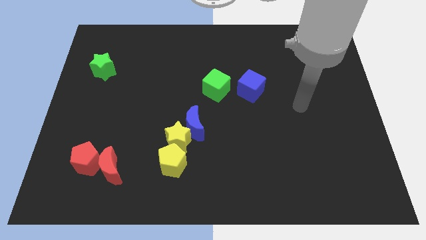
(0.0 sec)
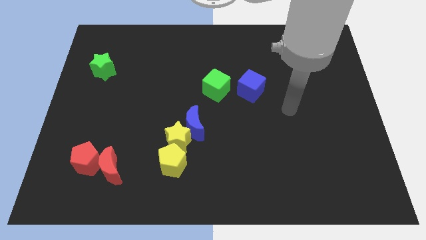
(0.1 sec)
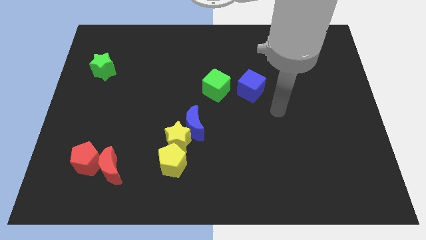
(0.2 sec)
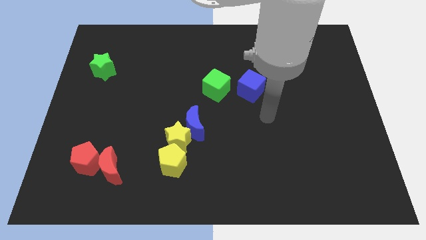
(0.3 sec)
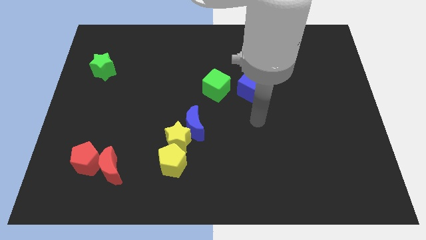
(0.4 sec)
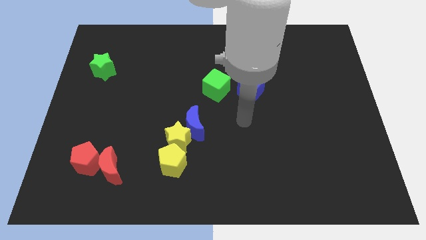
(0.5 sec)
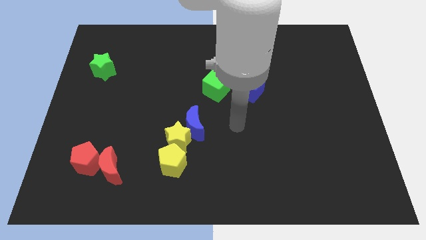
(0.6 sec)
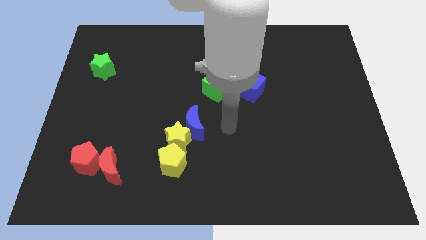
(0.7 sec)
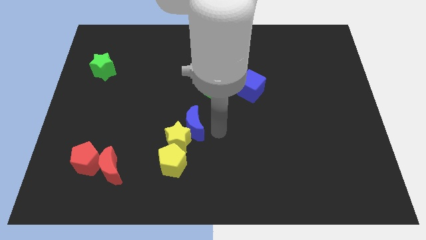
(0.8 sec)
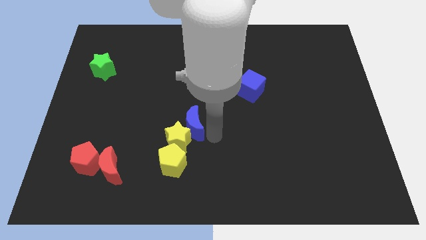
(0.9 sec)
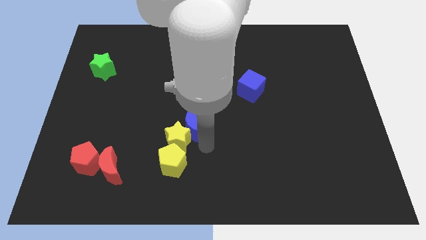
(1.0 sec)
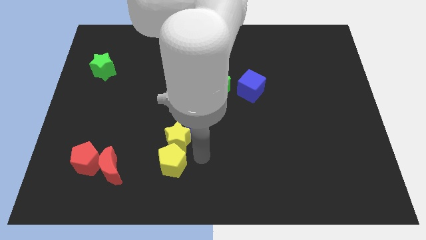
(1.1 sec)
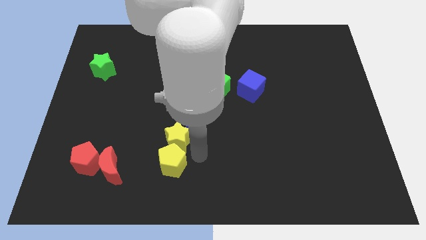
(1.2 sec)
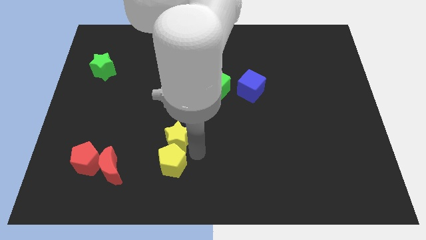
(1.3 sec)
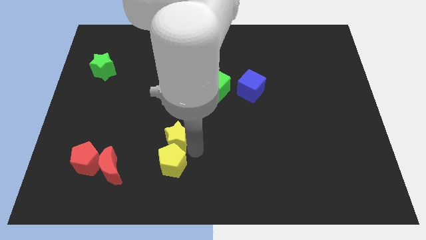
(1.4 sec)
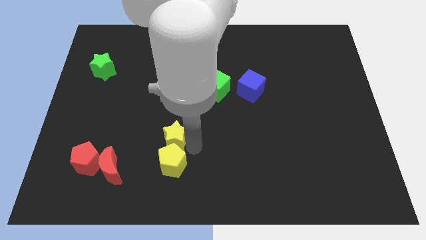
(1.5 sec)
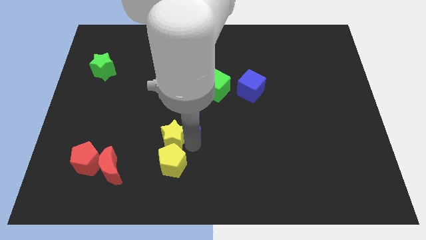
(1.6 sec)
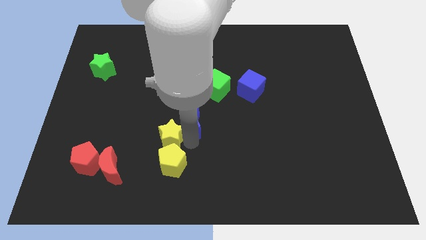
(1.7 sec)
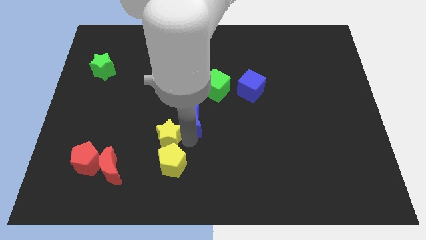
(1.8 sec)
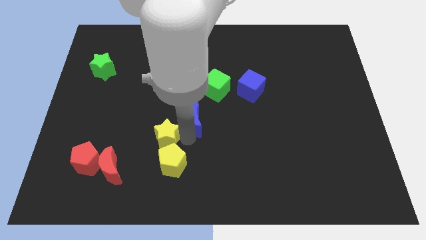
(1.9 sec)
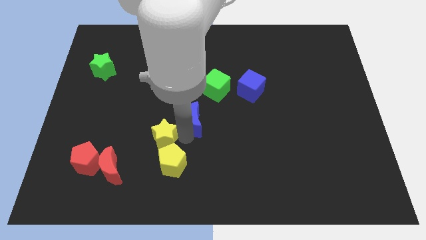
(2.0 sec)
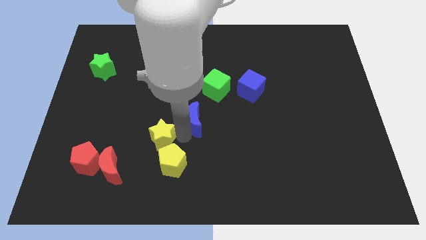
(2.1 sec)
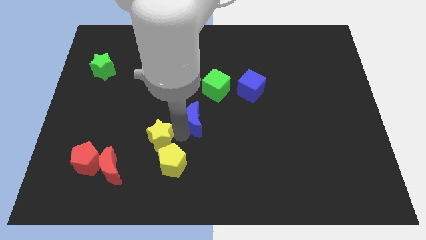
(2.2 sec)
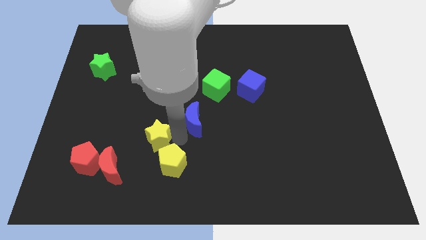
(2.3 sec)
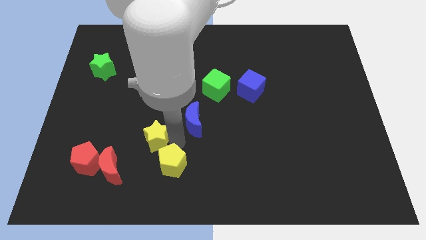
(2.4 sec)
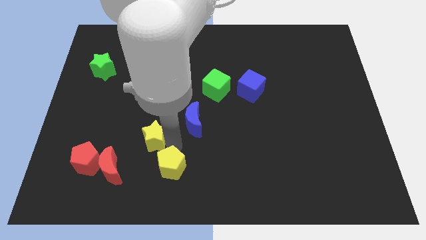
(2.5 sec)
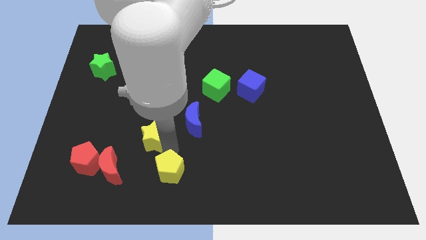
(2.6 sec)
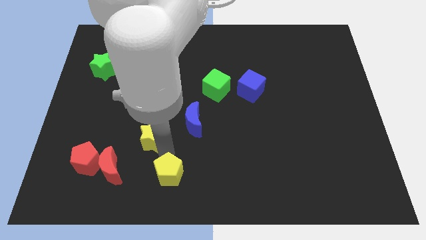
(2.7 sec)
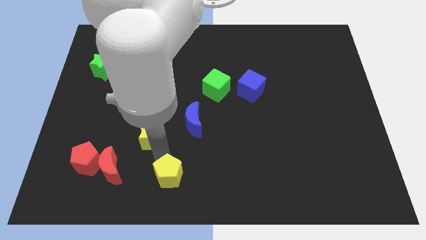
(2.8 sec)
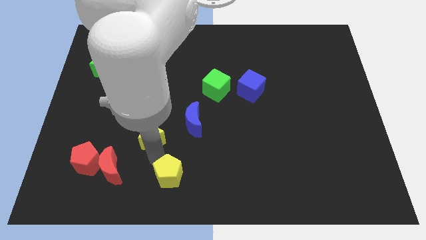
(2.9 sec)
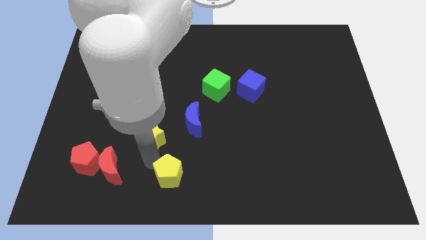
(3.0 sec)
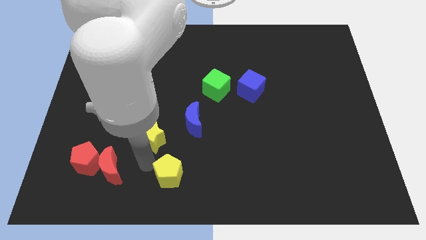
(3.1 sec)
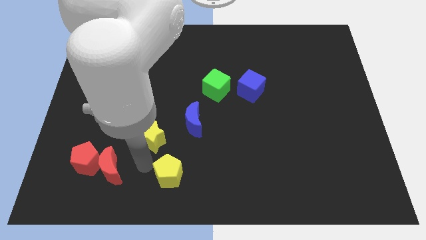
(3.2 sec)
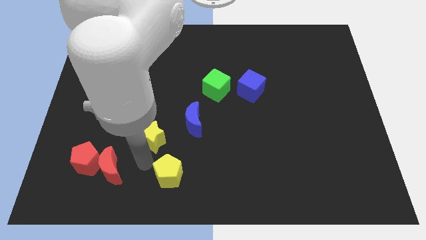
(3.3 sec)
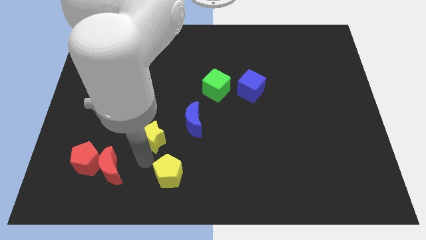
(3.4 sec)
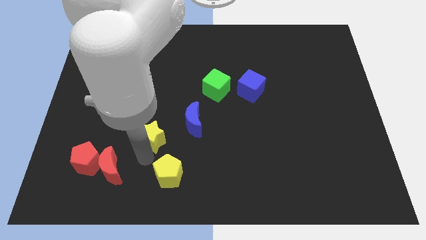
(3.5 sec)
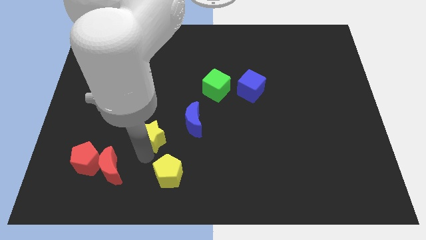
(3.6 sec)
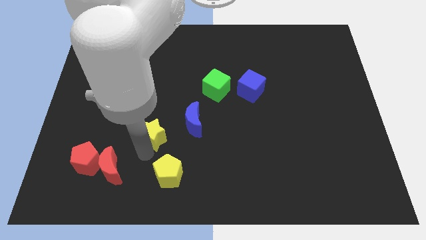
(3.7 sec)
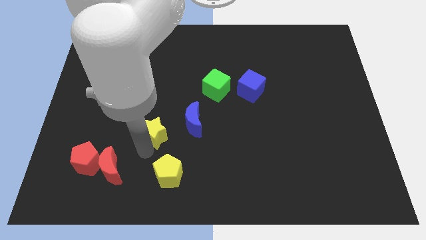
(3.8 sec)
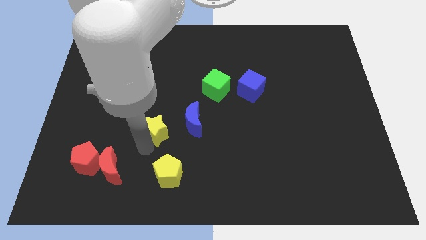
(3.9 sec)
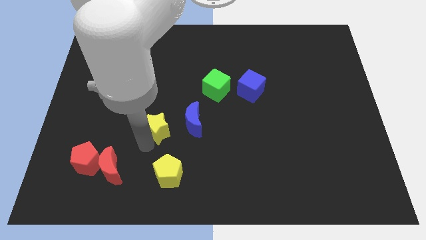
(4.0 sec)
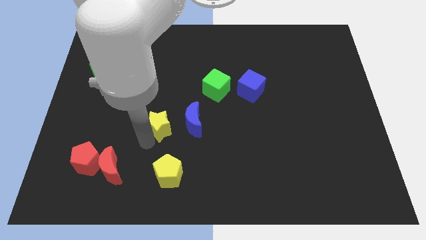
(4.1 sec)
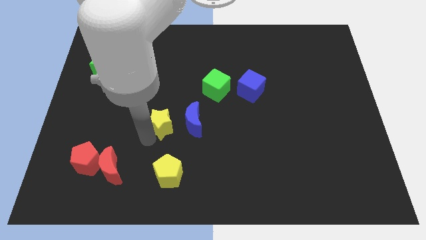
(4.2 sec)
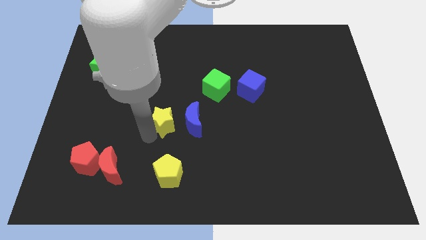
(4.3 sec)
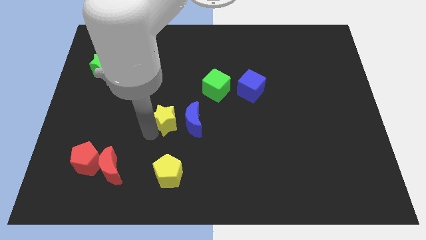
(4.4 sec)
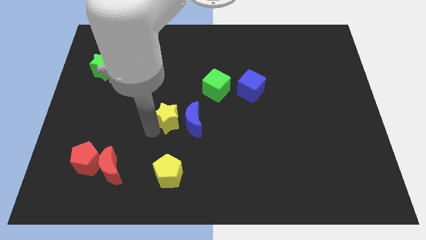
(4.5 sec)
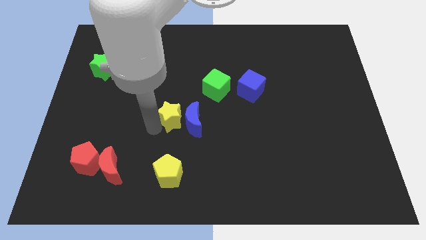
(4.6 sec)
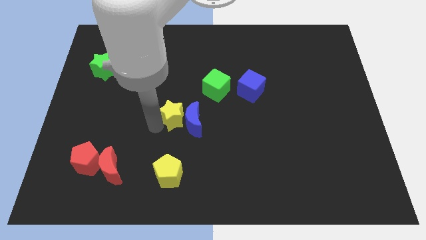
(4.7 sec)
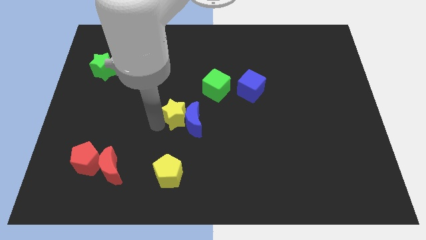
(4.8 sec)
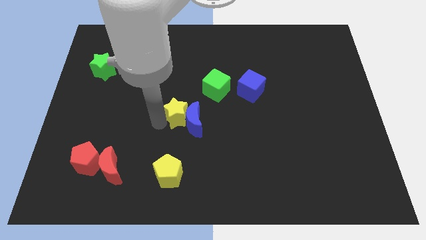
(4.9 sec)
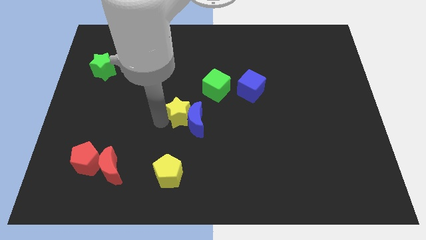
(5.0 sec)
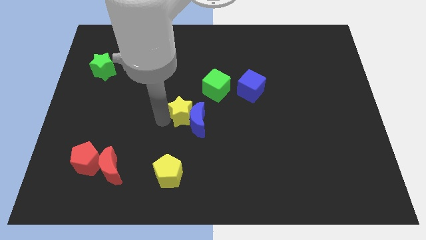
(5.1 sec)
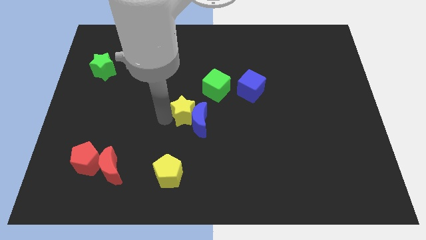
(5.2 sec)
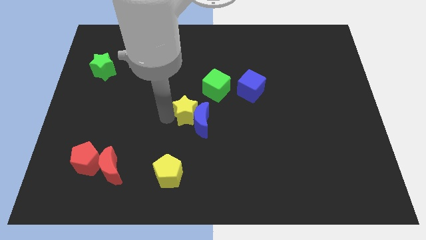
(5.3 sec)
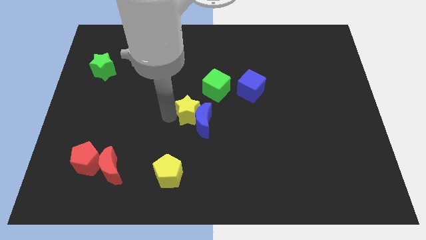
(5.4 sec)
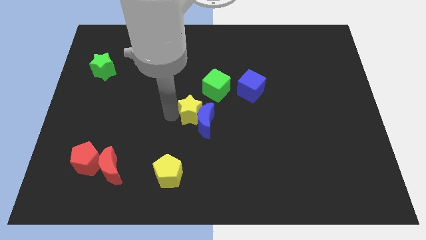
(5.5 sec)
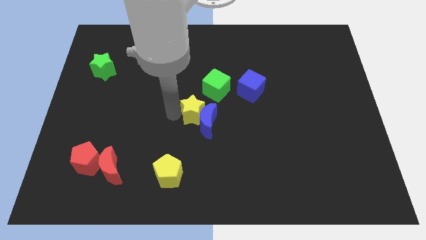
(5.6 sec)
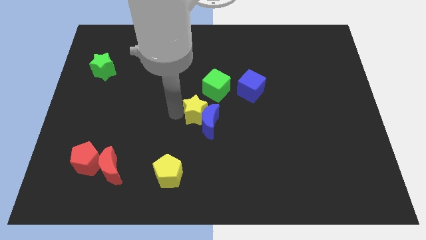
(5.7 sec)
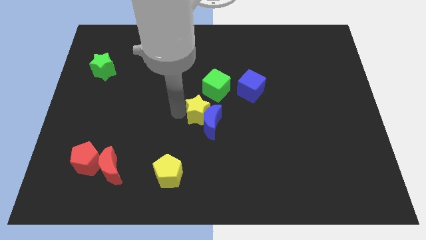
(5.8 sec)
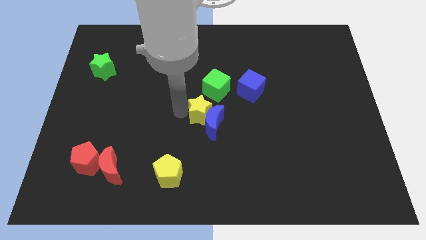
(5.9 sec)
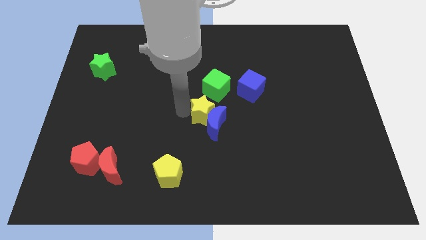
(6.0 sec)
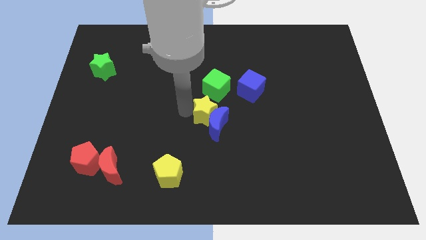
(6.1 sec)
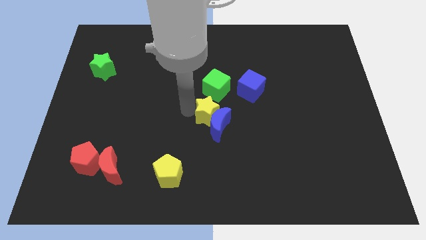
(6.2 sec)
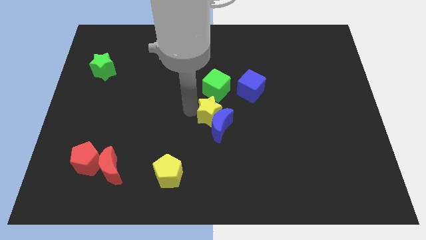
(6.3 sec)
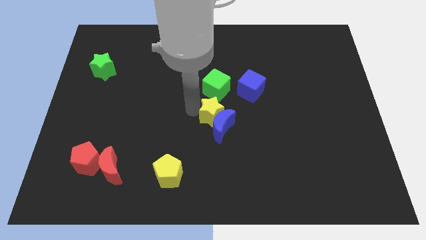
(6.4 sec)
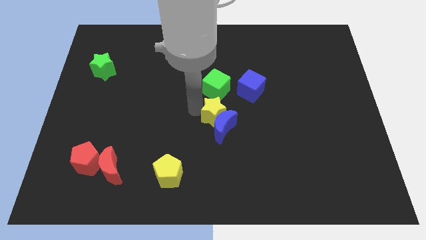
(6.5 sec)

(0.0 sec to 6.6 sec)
move the yellow star away from the blue moon and yellow pentagon

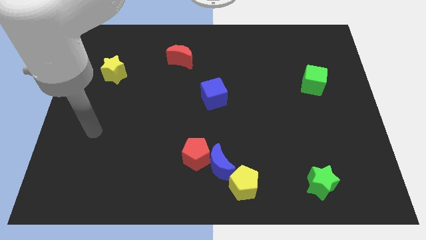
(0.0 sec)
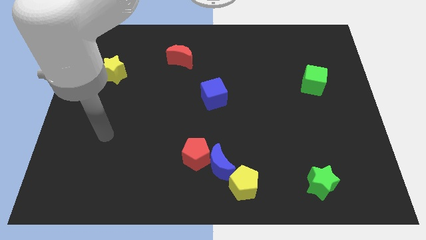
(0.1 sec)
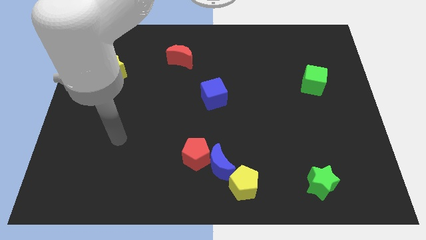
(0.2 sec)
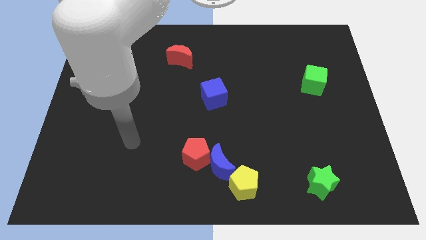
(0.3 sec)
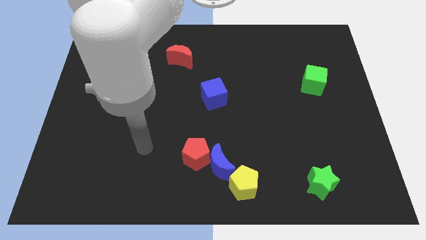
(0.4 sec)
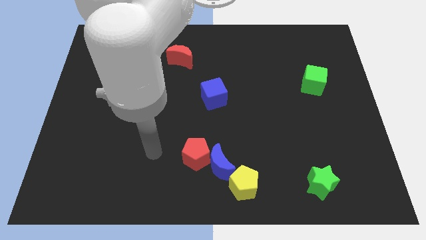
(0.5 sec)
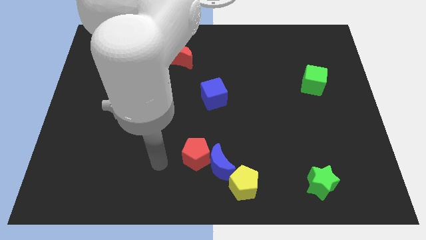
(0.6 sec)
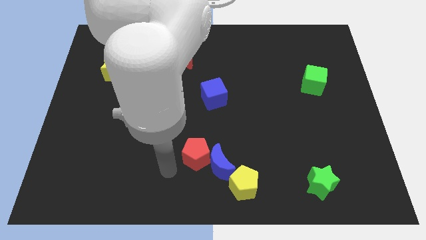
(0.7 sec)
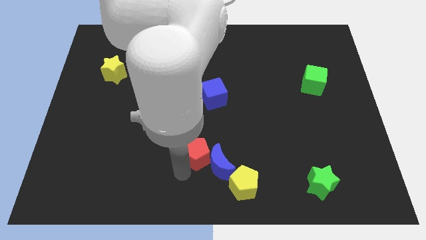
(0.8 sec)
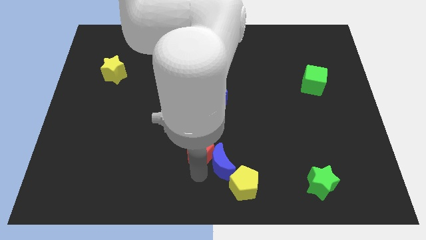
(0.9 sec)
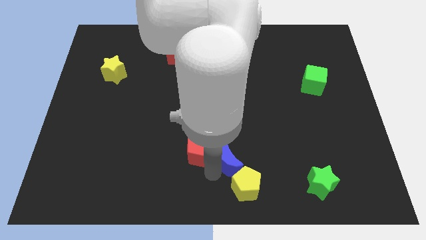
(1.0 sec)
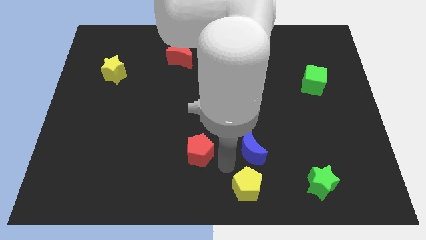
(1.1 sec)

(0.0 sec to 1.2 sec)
move the red pentagon away from the blue moon

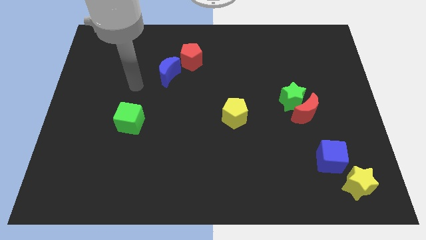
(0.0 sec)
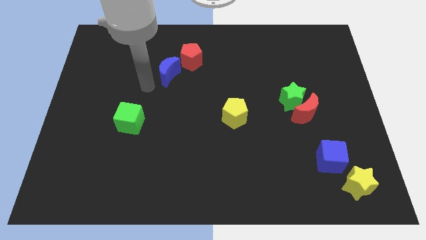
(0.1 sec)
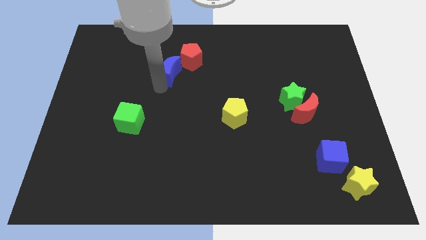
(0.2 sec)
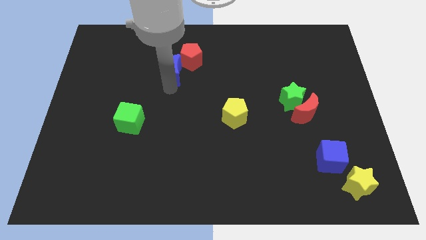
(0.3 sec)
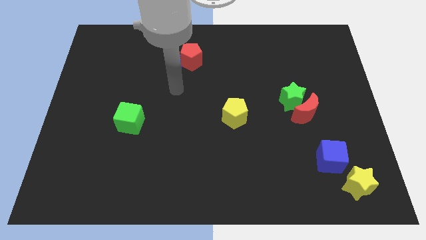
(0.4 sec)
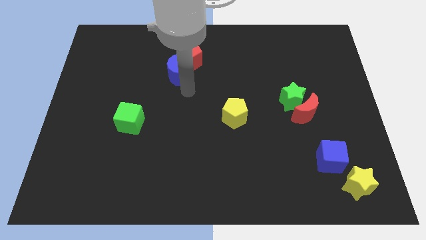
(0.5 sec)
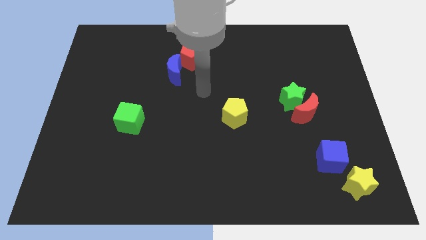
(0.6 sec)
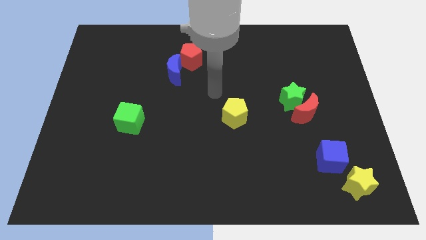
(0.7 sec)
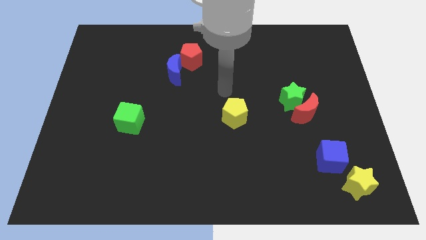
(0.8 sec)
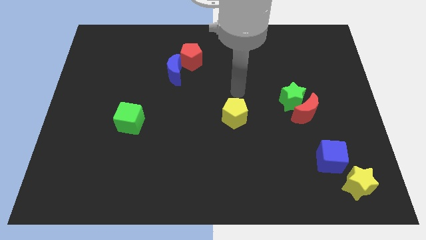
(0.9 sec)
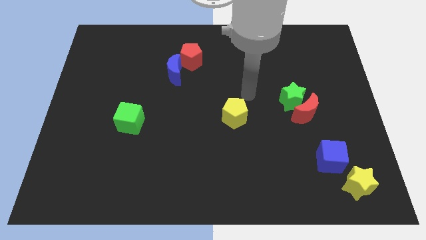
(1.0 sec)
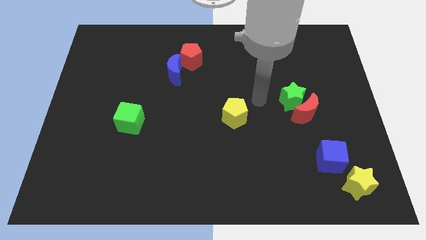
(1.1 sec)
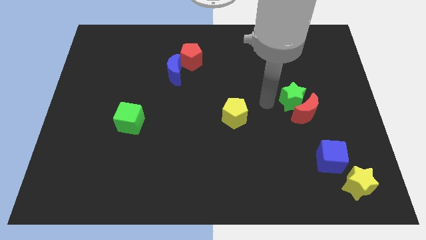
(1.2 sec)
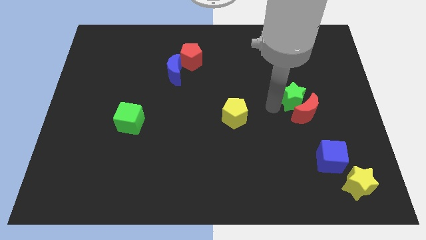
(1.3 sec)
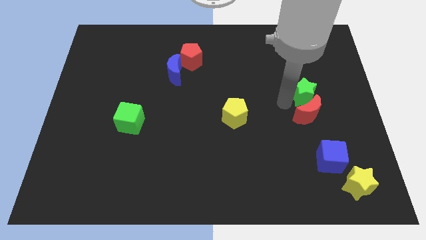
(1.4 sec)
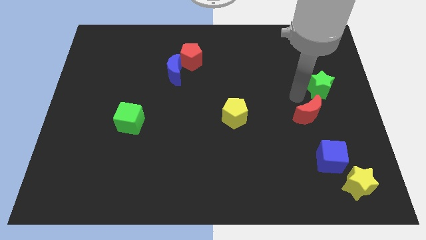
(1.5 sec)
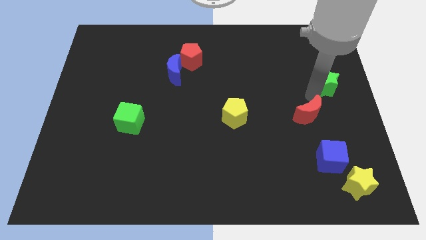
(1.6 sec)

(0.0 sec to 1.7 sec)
separate the red moon from the green star
